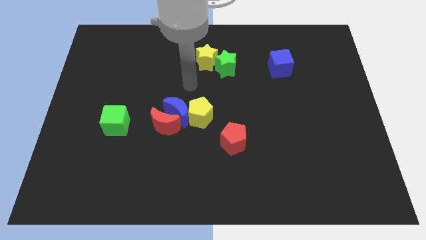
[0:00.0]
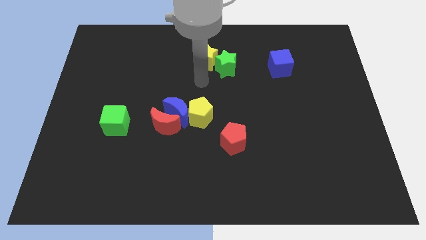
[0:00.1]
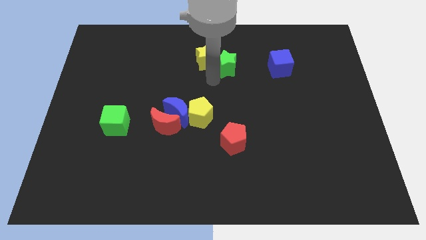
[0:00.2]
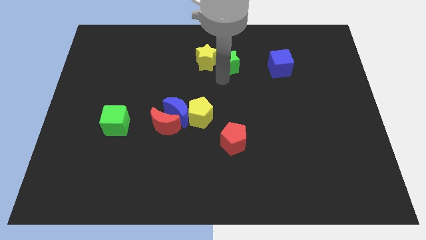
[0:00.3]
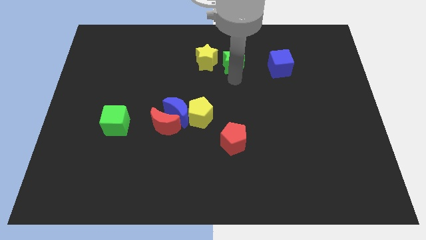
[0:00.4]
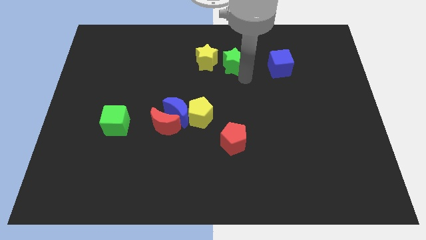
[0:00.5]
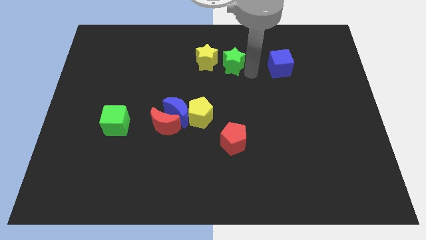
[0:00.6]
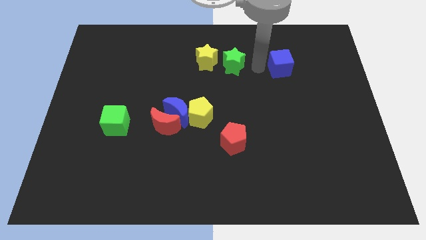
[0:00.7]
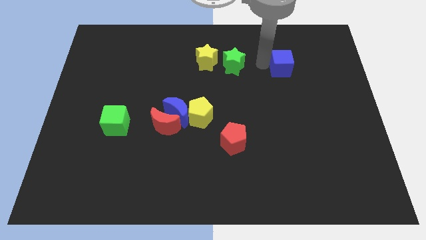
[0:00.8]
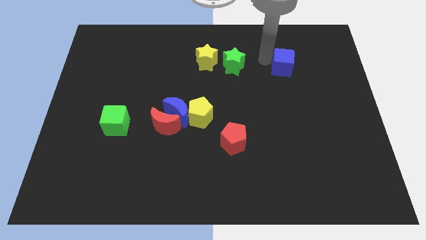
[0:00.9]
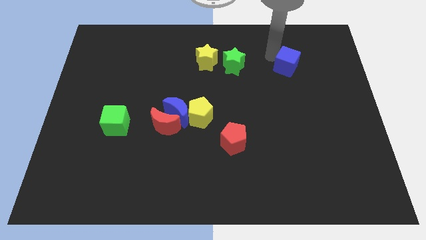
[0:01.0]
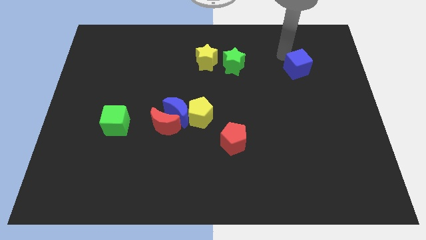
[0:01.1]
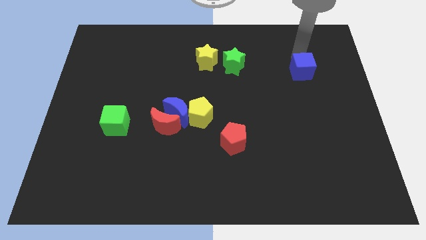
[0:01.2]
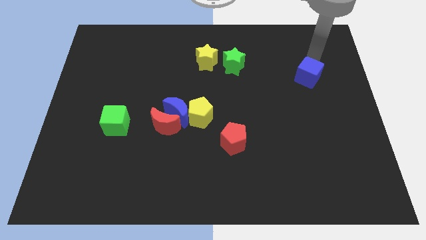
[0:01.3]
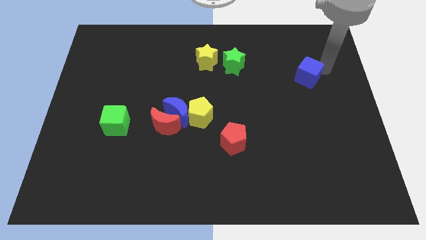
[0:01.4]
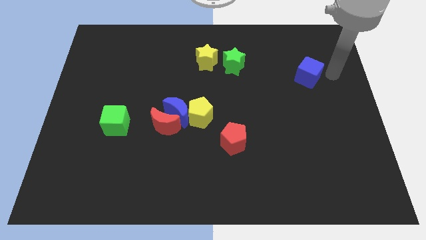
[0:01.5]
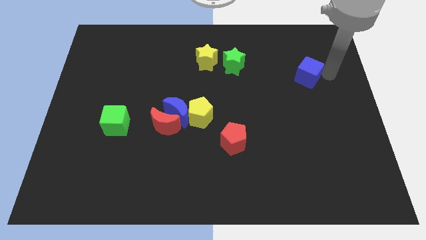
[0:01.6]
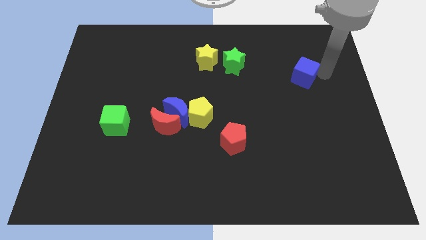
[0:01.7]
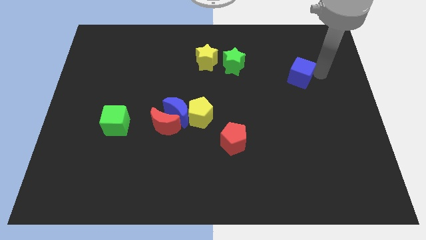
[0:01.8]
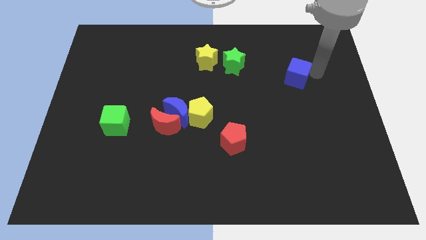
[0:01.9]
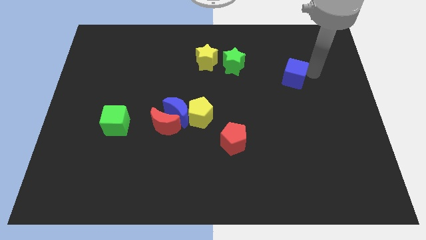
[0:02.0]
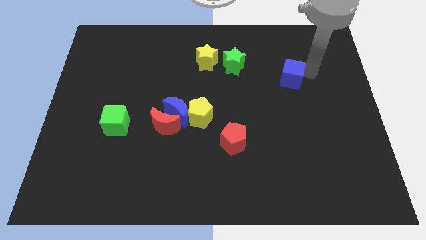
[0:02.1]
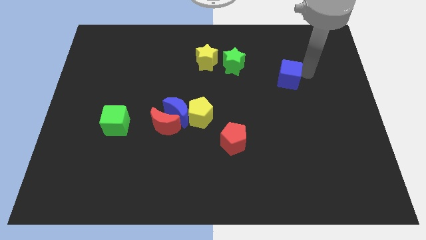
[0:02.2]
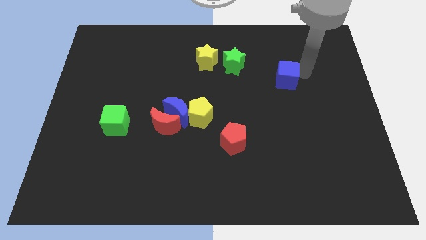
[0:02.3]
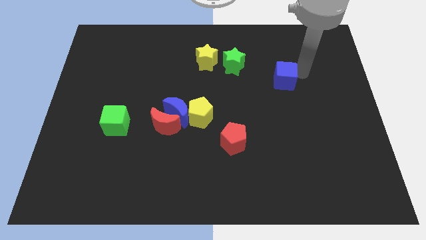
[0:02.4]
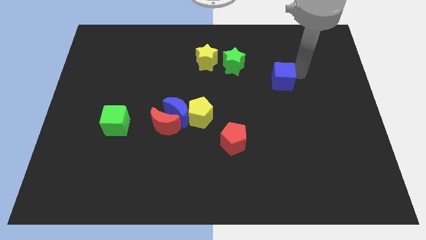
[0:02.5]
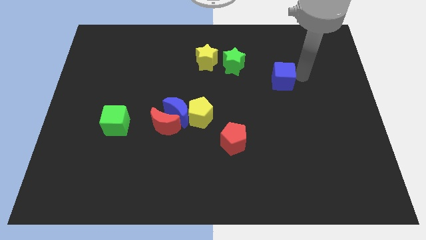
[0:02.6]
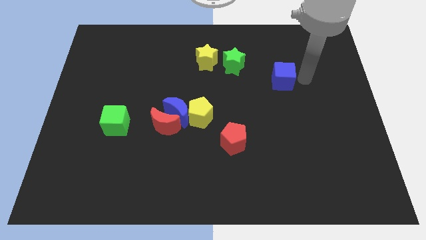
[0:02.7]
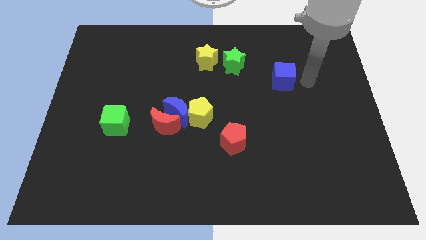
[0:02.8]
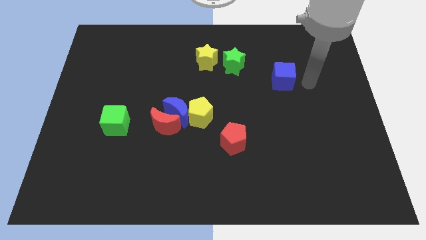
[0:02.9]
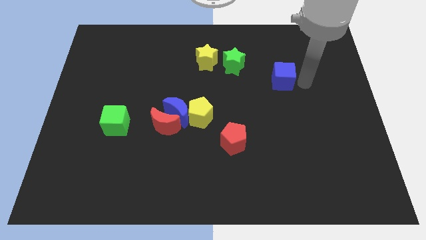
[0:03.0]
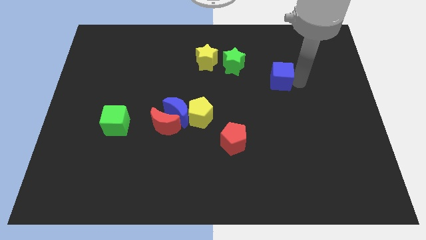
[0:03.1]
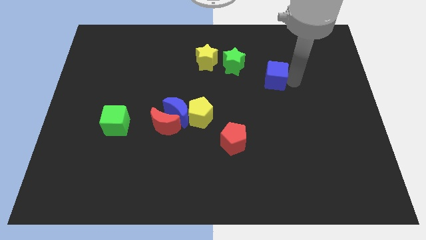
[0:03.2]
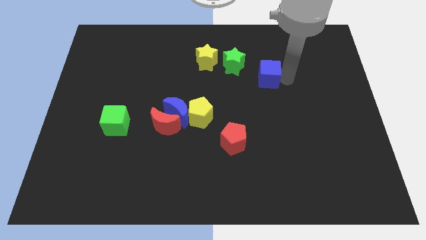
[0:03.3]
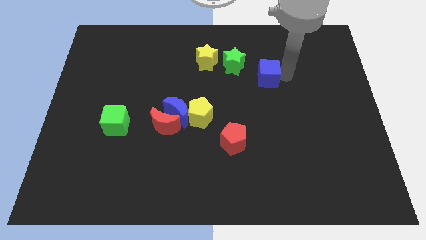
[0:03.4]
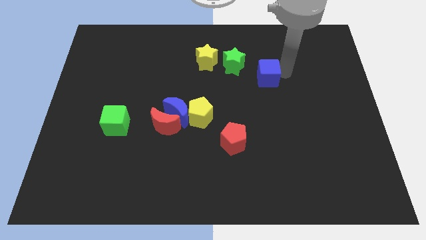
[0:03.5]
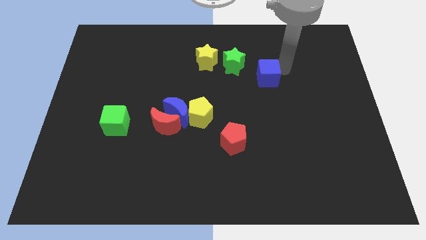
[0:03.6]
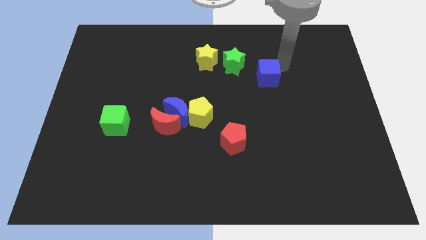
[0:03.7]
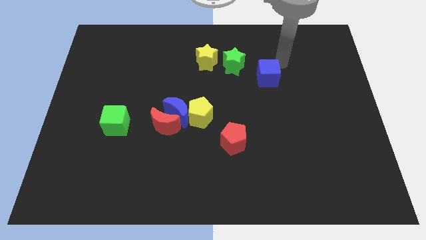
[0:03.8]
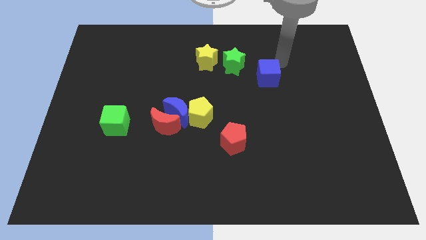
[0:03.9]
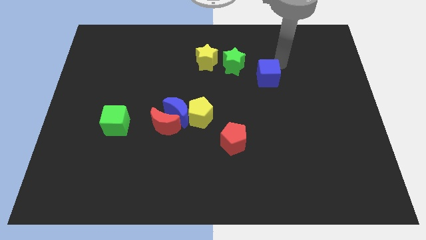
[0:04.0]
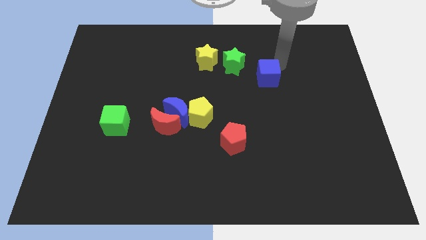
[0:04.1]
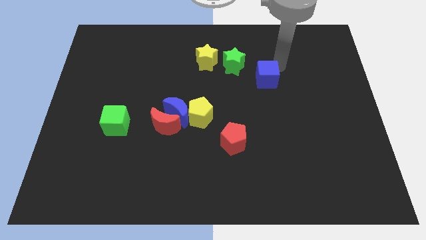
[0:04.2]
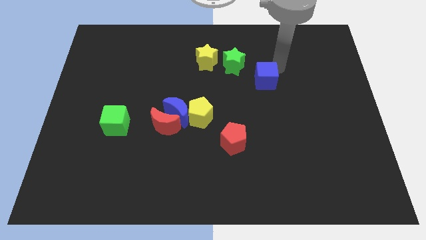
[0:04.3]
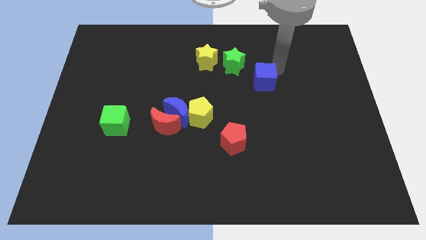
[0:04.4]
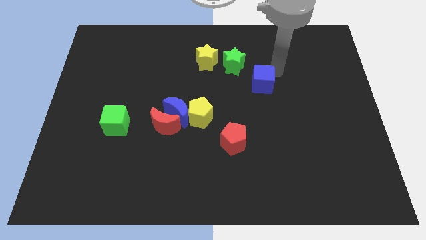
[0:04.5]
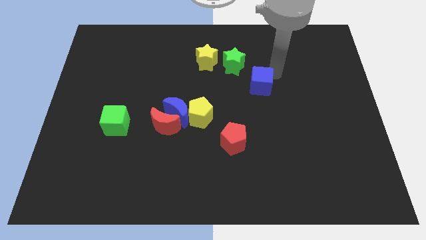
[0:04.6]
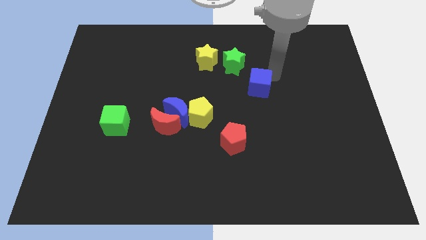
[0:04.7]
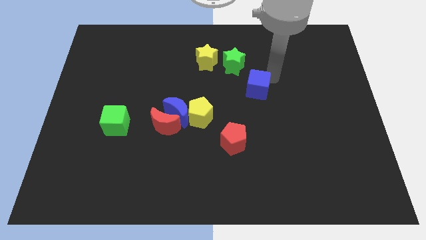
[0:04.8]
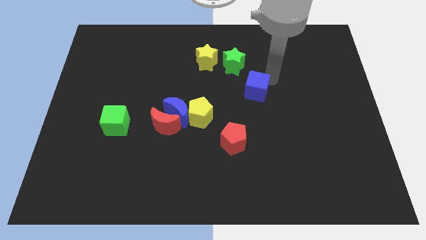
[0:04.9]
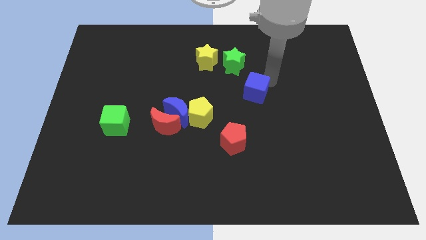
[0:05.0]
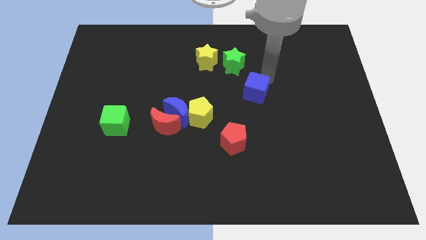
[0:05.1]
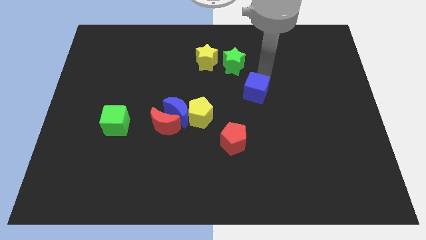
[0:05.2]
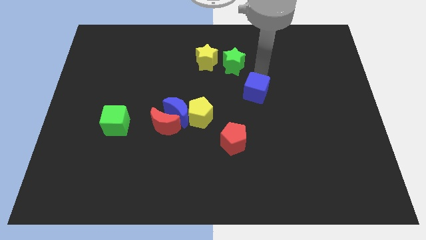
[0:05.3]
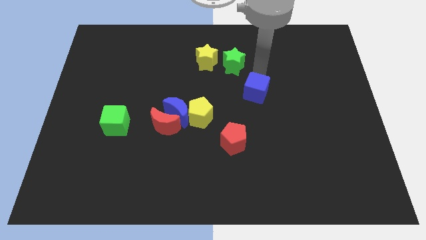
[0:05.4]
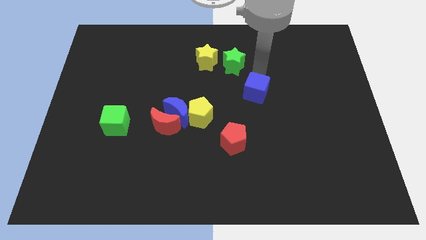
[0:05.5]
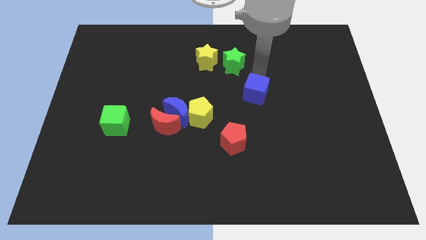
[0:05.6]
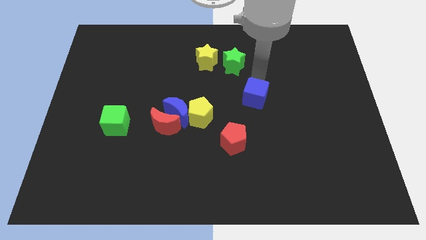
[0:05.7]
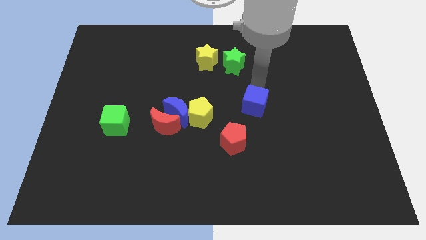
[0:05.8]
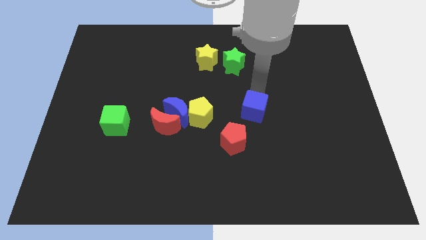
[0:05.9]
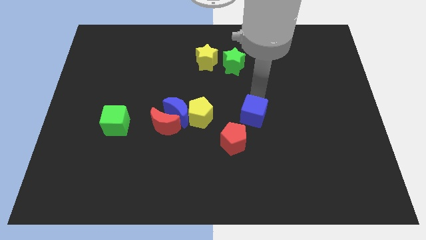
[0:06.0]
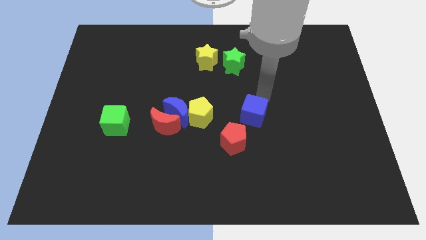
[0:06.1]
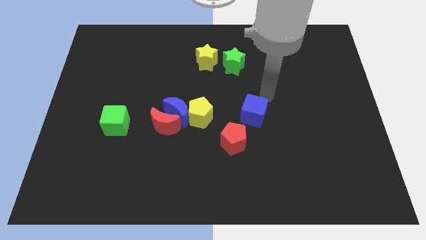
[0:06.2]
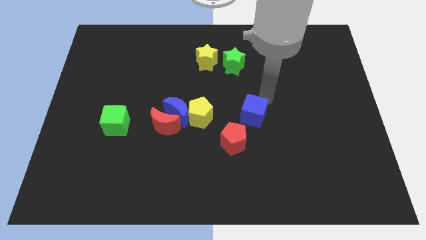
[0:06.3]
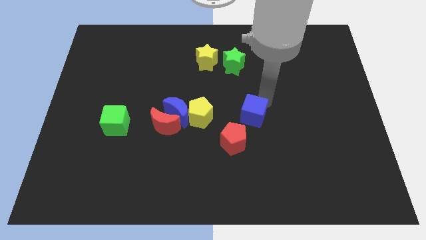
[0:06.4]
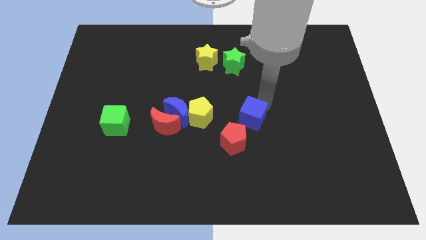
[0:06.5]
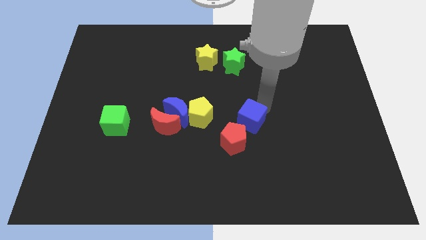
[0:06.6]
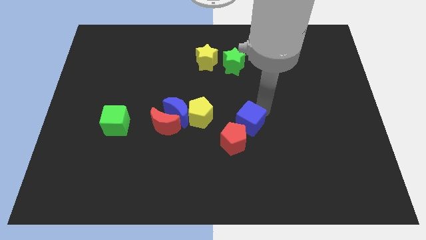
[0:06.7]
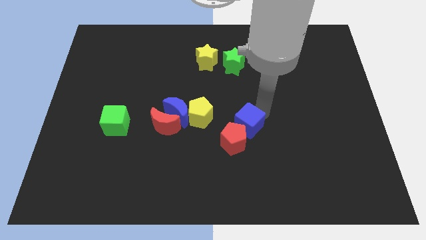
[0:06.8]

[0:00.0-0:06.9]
slide the blue cube close to the red pentagon
